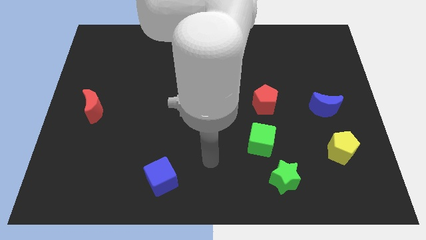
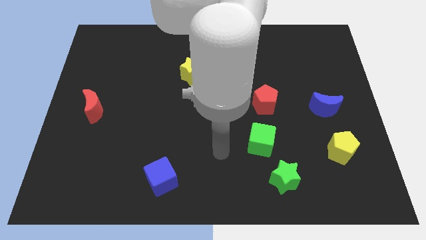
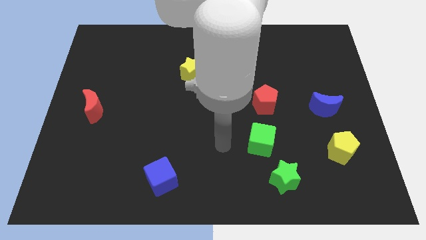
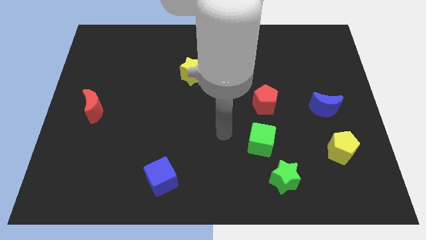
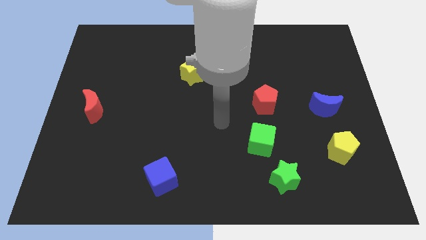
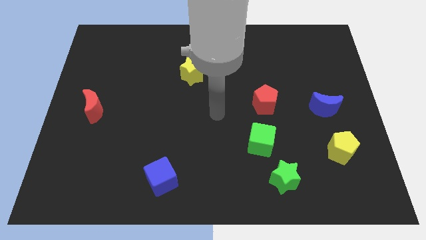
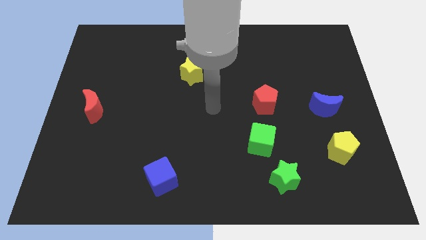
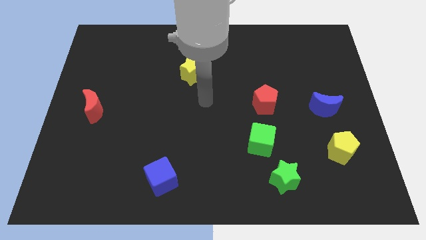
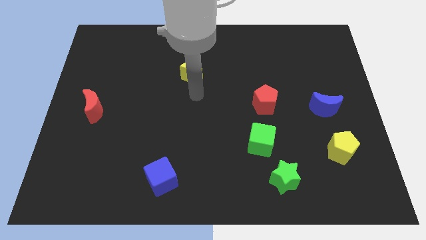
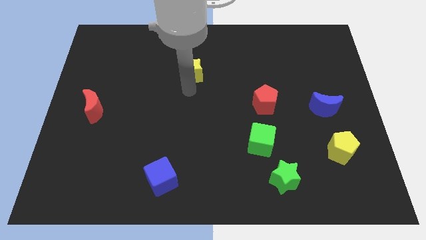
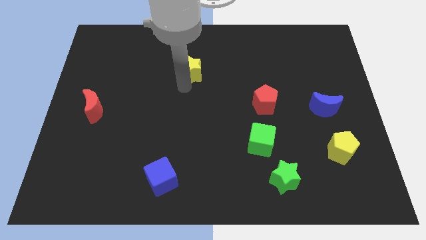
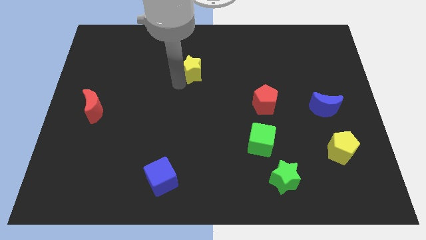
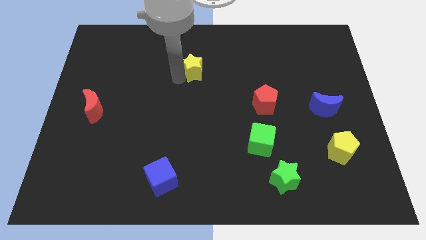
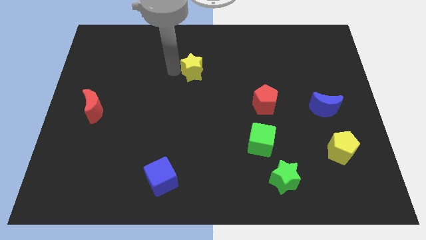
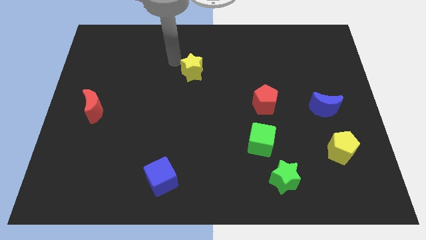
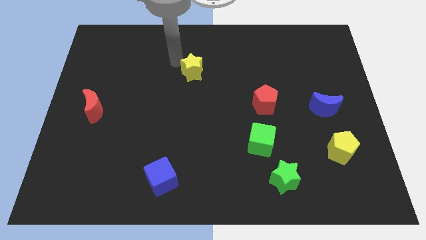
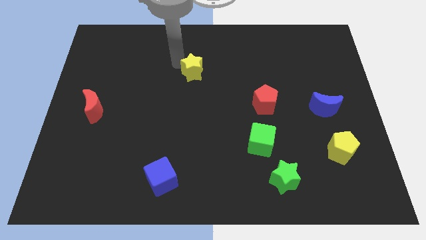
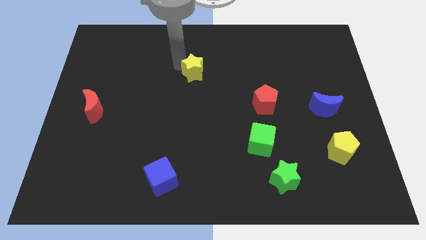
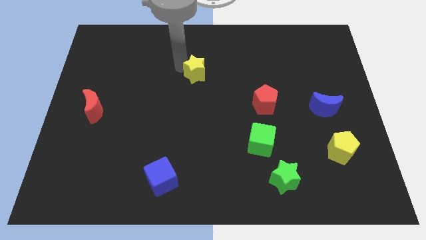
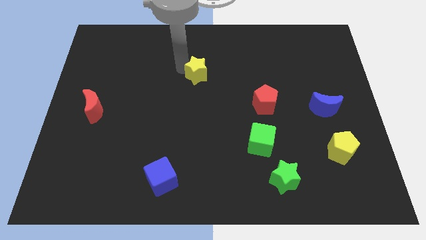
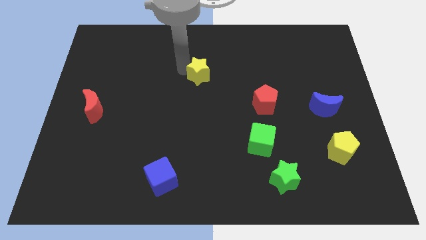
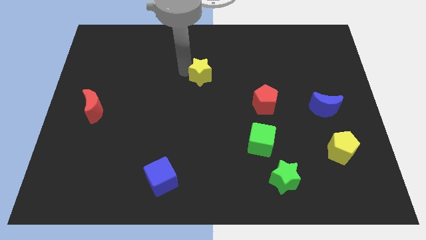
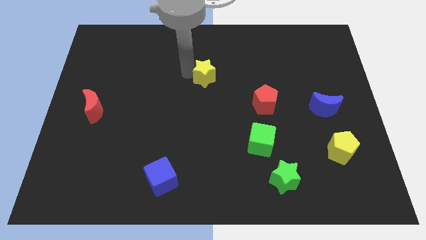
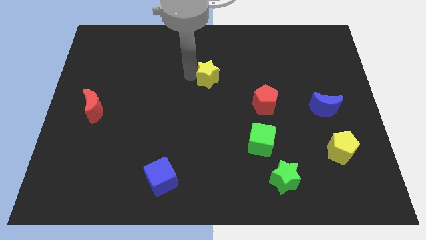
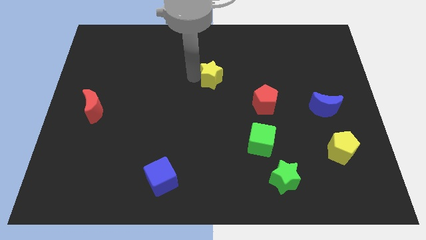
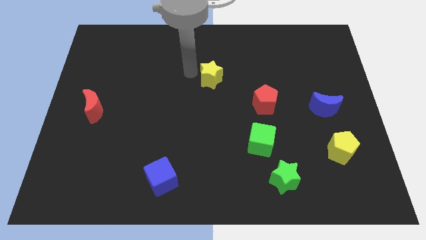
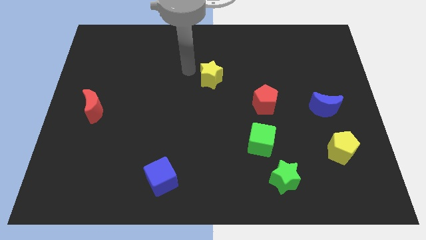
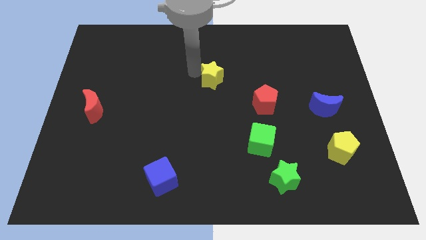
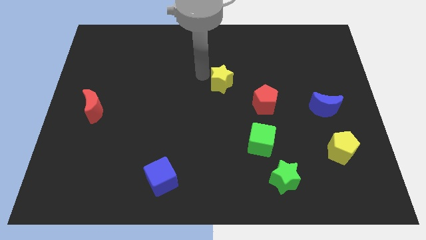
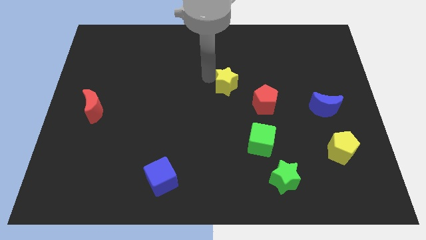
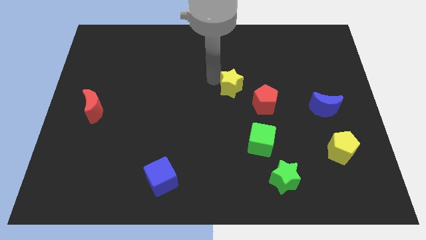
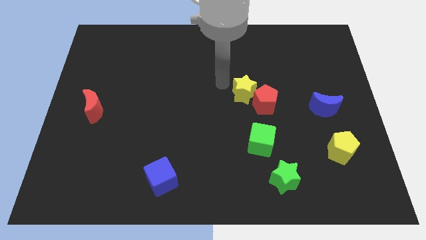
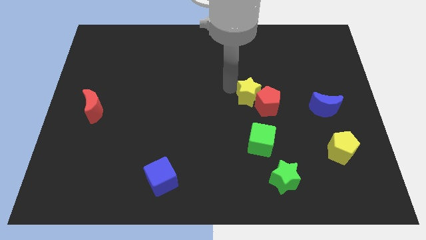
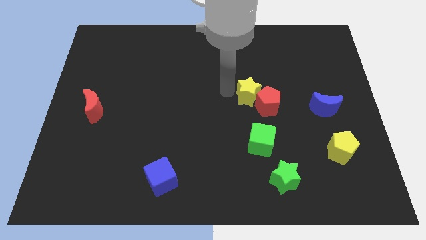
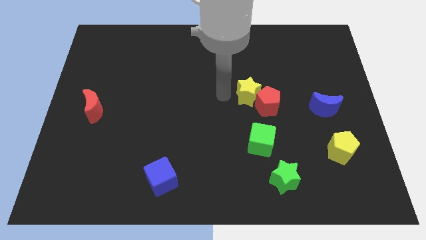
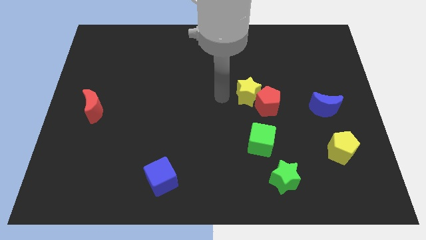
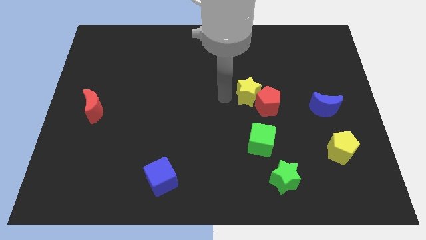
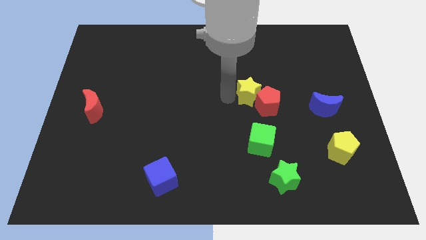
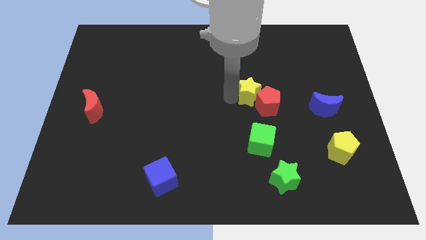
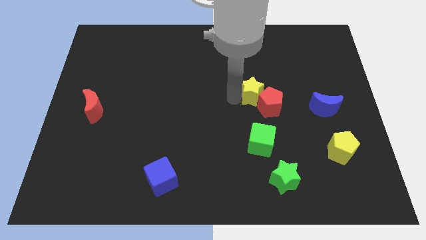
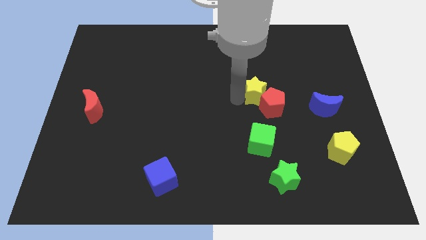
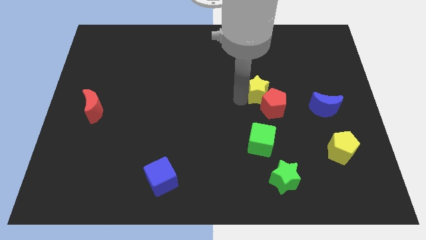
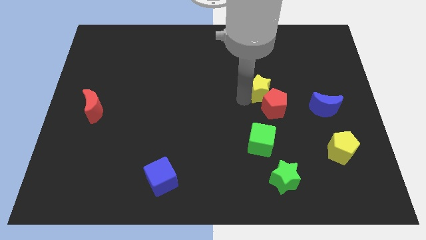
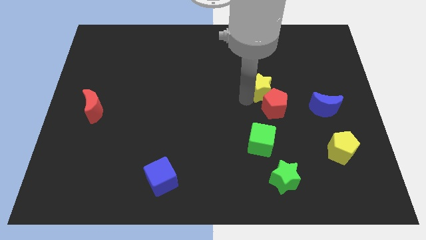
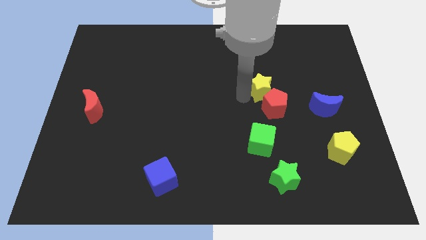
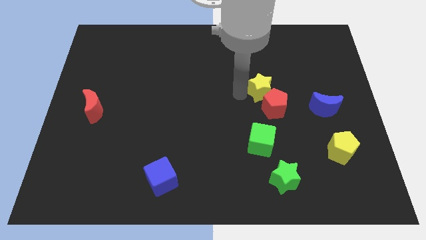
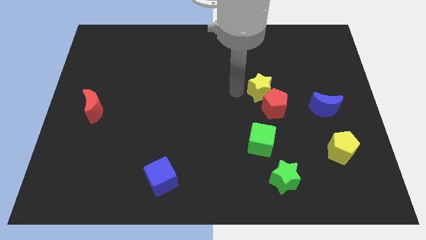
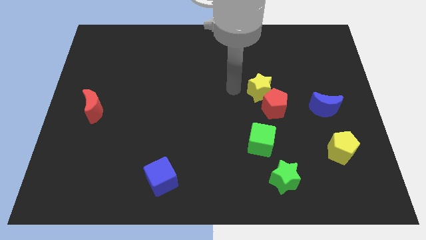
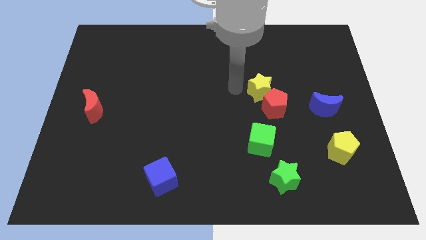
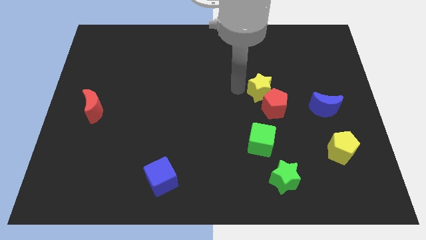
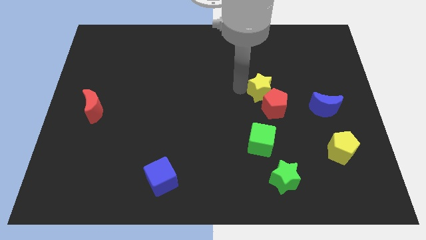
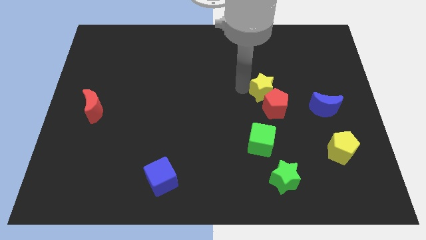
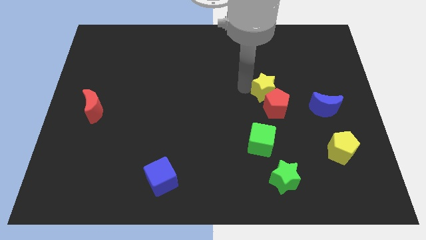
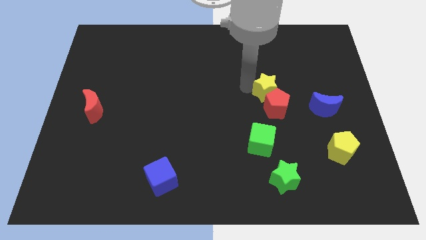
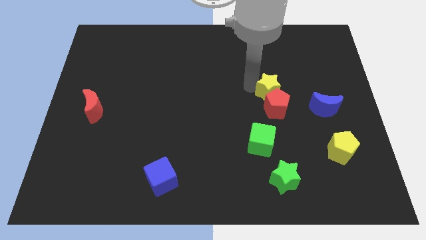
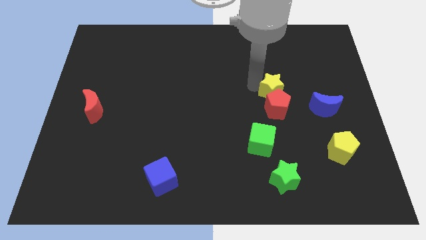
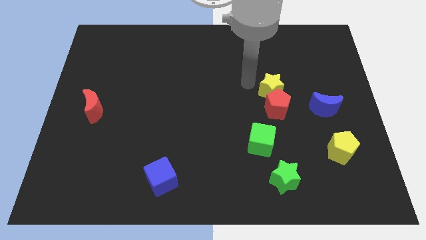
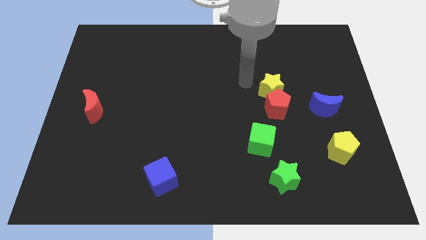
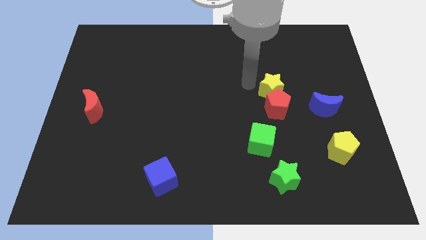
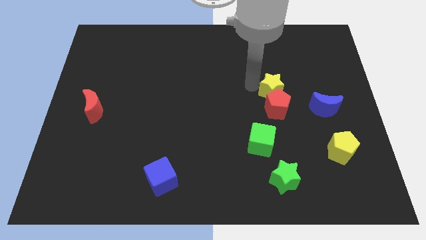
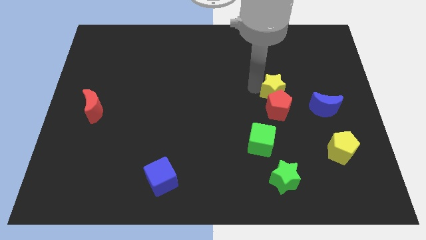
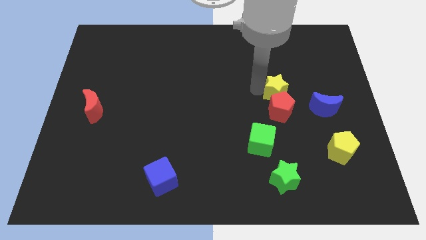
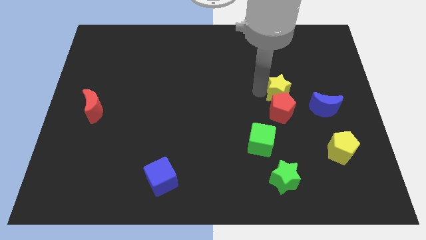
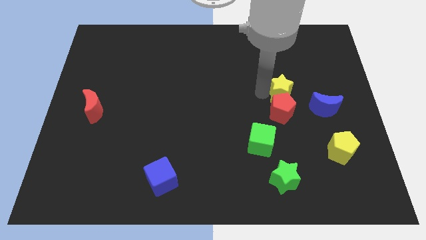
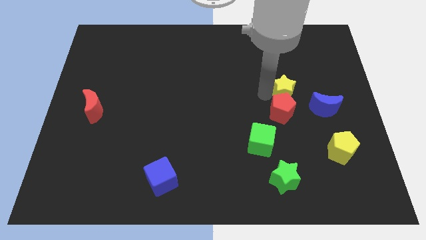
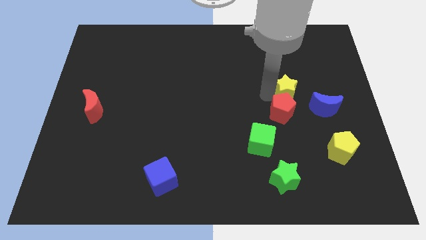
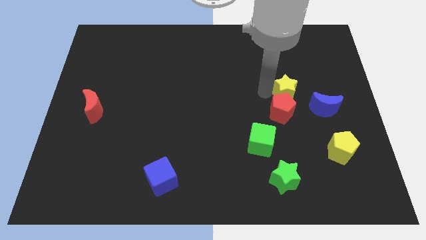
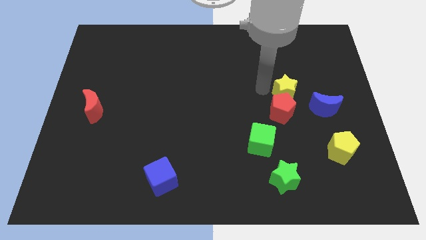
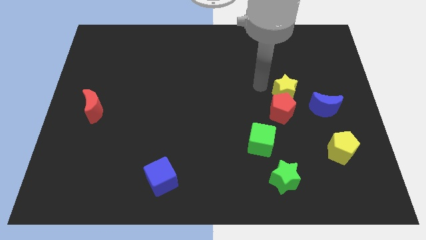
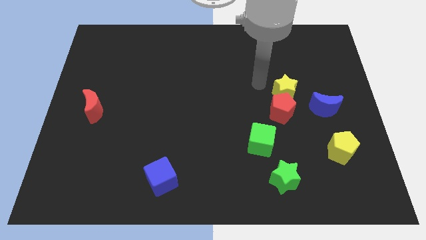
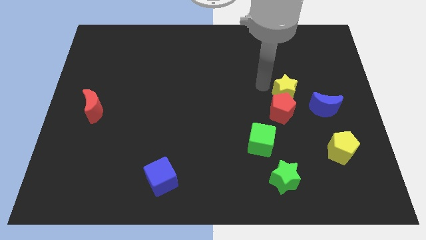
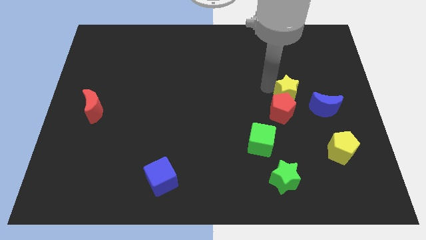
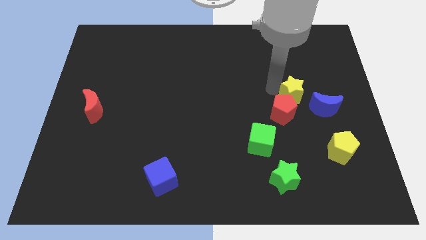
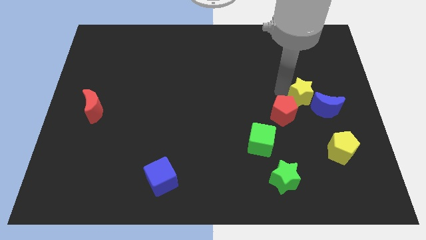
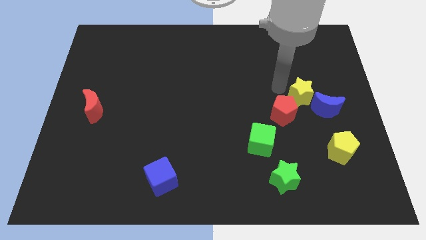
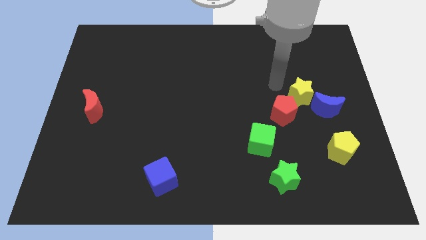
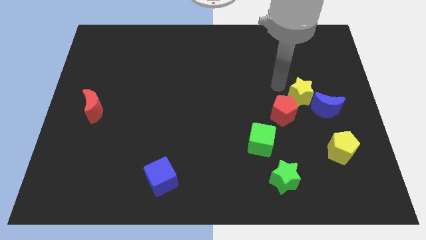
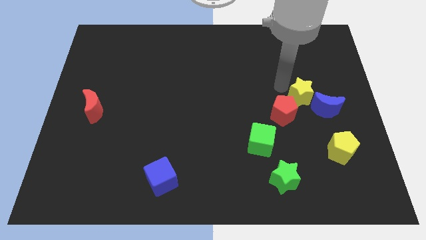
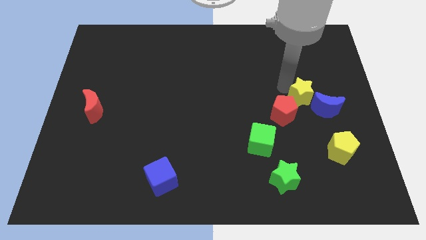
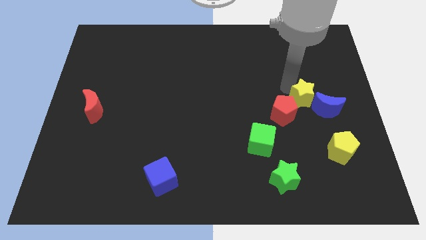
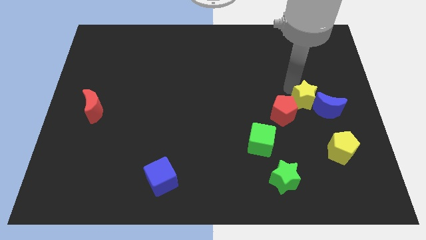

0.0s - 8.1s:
put the yellow star to the blue moon
